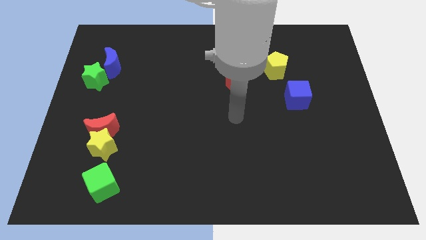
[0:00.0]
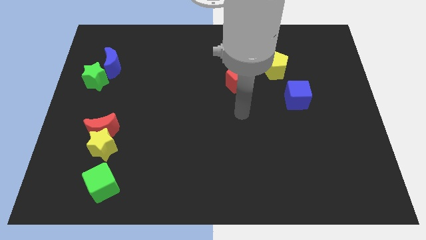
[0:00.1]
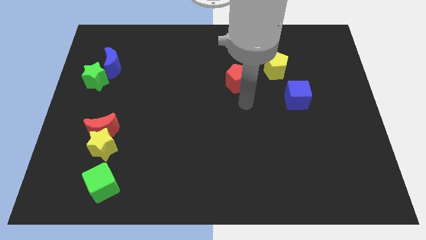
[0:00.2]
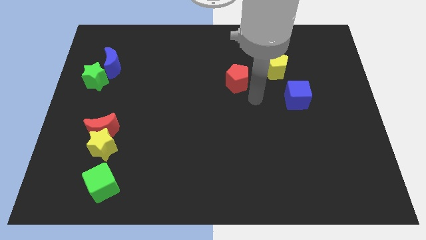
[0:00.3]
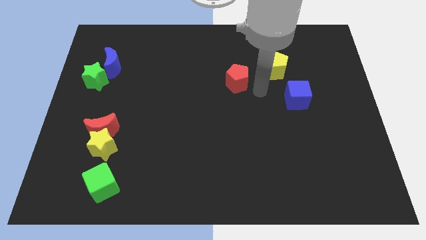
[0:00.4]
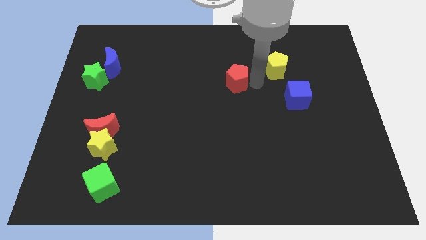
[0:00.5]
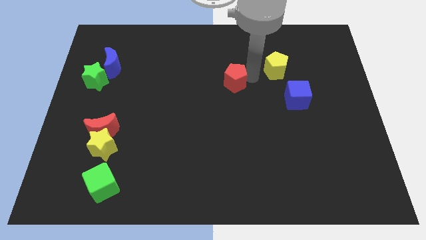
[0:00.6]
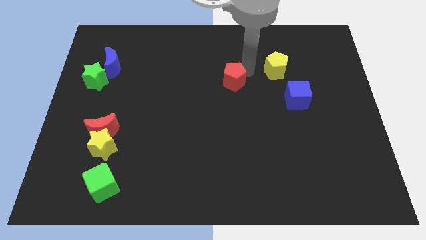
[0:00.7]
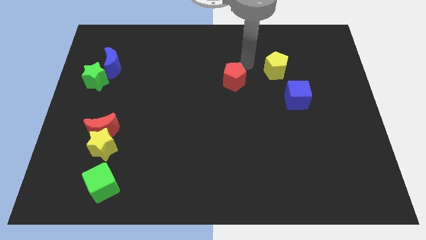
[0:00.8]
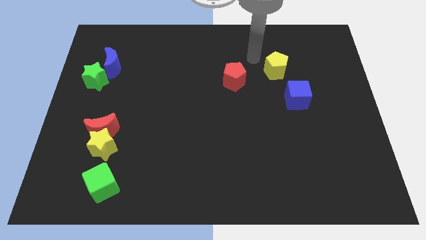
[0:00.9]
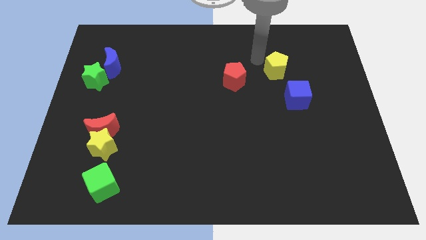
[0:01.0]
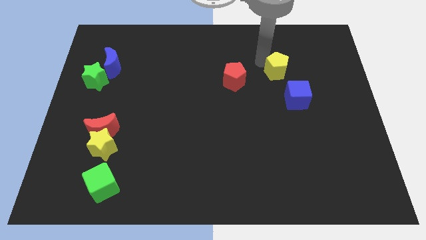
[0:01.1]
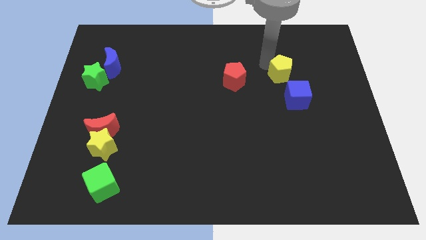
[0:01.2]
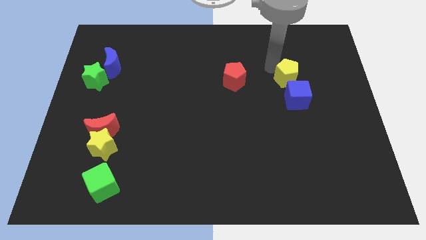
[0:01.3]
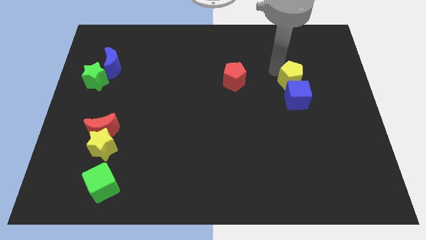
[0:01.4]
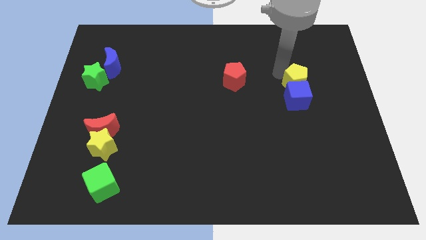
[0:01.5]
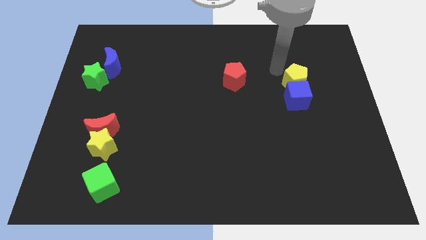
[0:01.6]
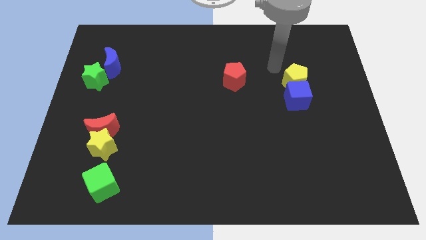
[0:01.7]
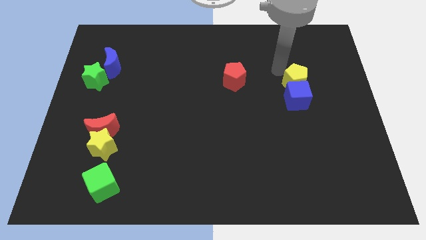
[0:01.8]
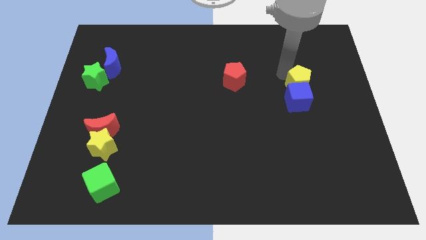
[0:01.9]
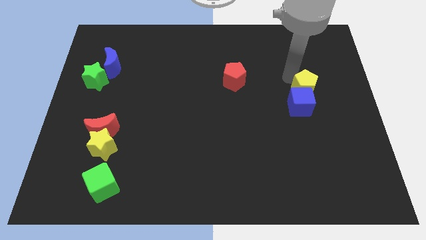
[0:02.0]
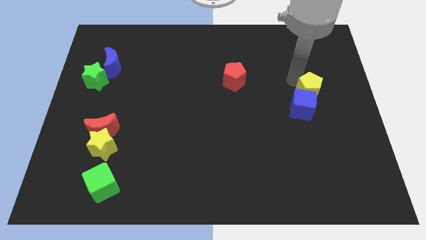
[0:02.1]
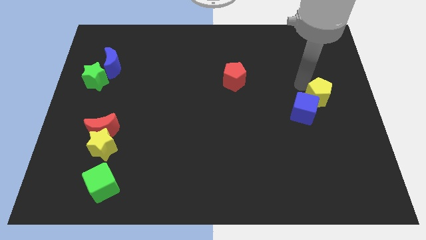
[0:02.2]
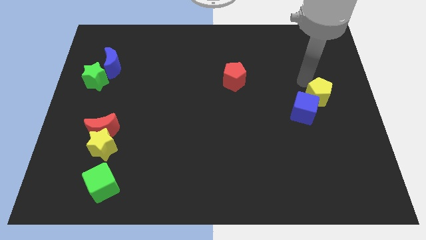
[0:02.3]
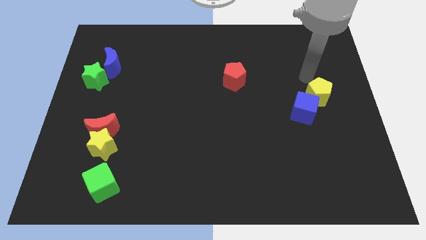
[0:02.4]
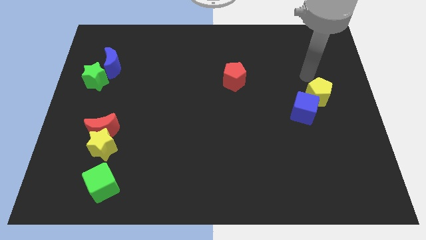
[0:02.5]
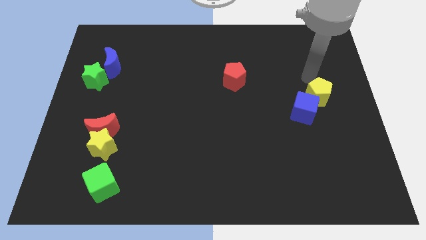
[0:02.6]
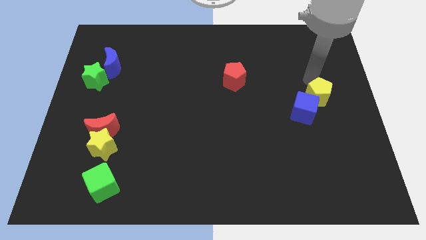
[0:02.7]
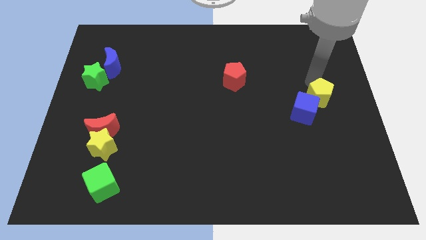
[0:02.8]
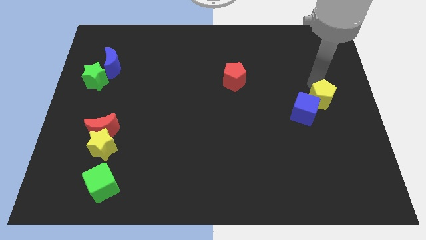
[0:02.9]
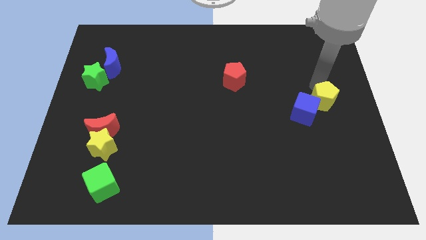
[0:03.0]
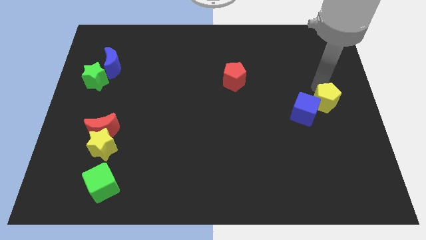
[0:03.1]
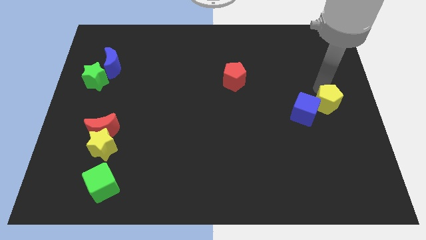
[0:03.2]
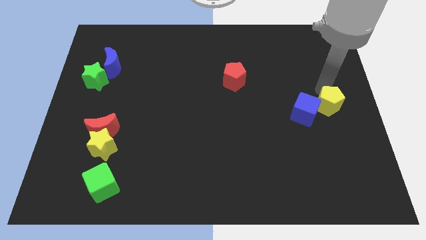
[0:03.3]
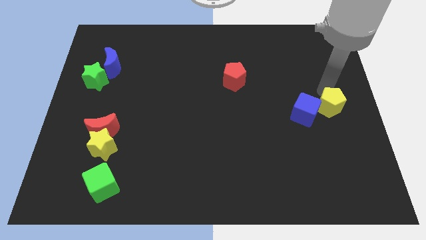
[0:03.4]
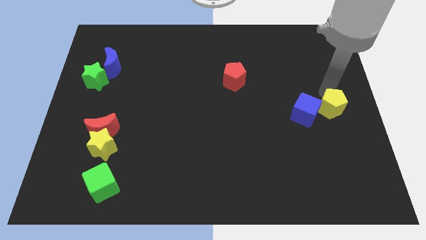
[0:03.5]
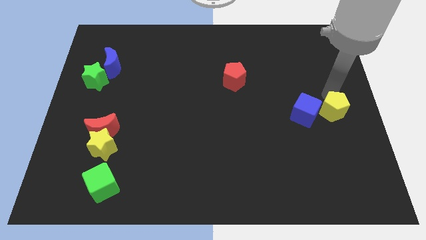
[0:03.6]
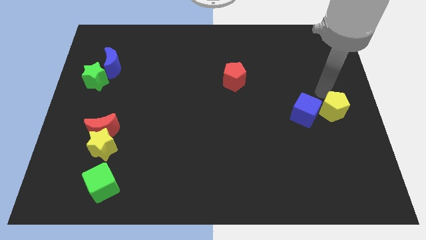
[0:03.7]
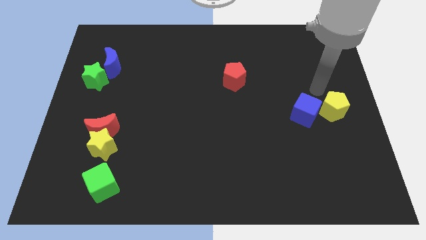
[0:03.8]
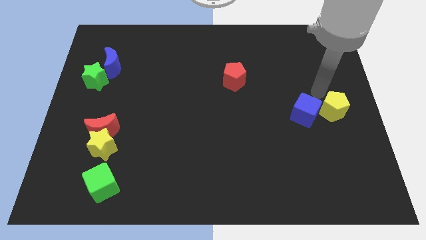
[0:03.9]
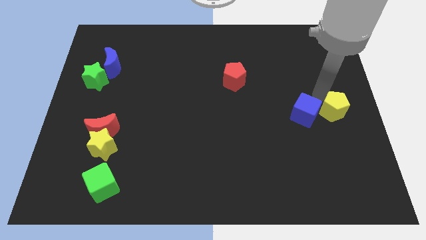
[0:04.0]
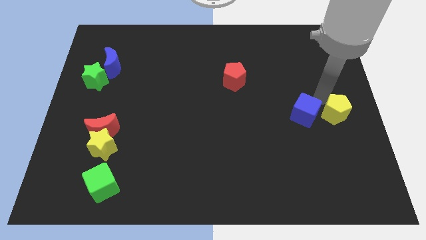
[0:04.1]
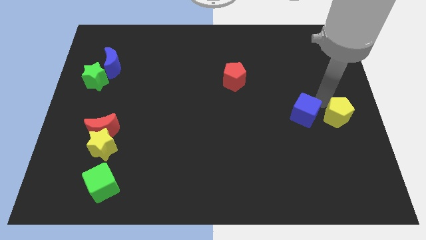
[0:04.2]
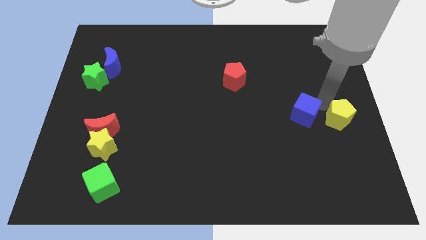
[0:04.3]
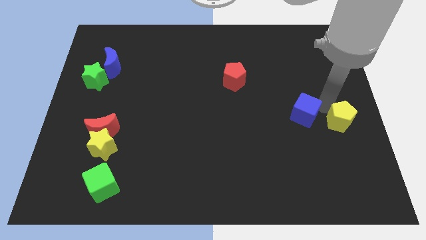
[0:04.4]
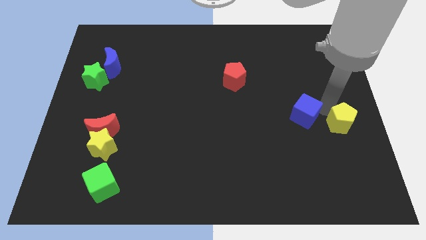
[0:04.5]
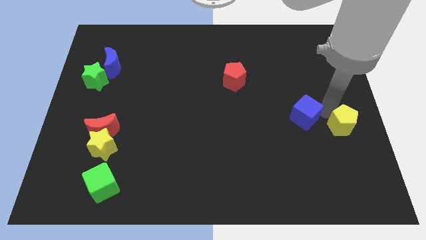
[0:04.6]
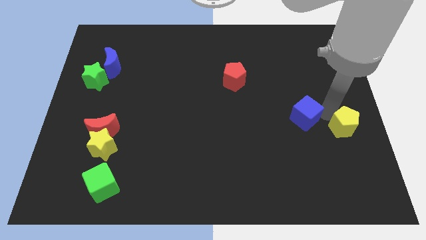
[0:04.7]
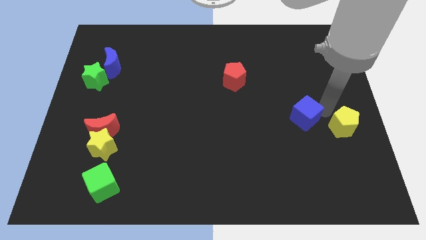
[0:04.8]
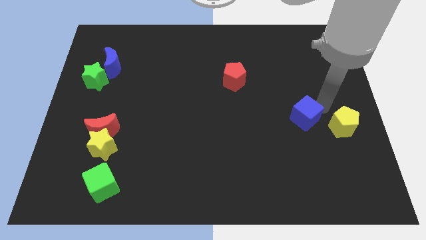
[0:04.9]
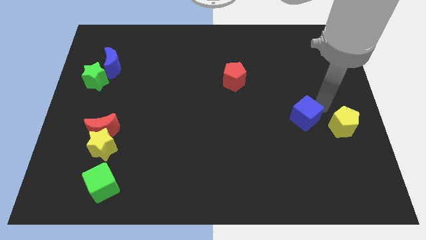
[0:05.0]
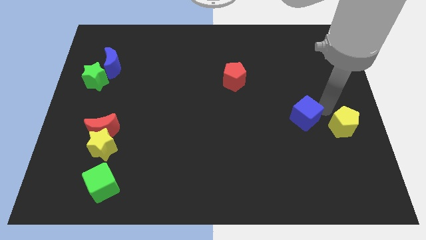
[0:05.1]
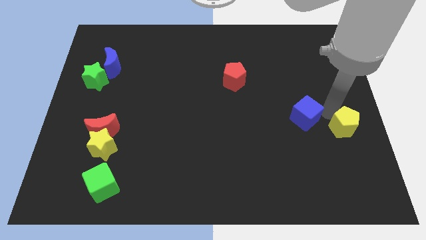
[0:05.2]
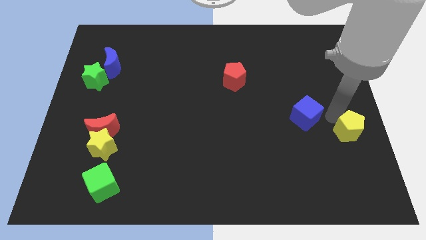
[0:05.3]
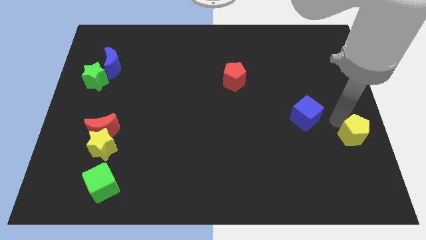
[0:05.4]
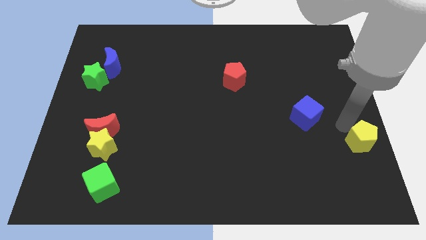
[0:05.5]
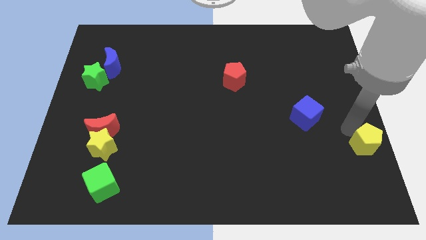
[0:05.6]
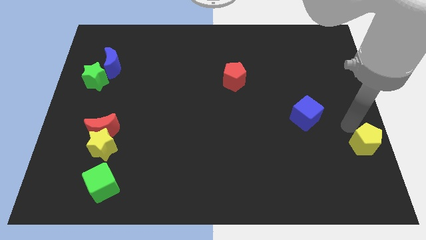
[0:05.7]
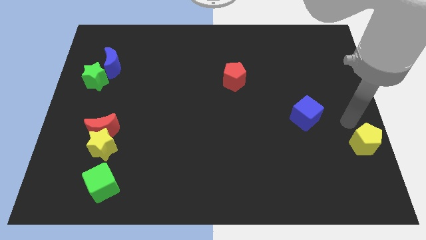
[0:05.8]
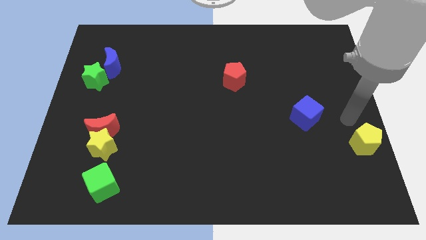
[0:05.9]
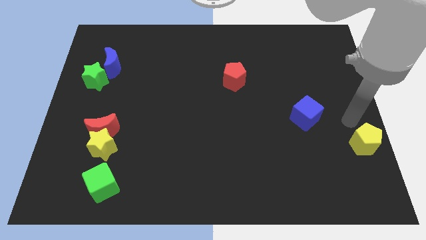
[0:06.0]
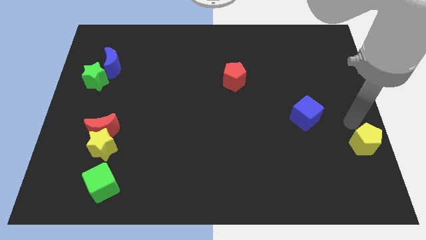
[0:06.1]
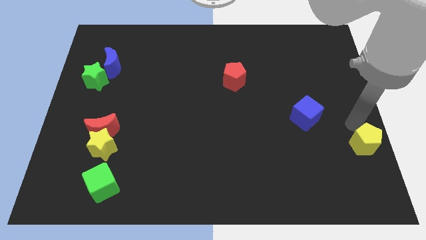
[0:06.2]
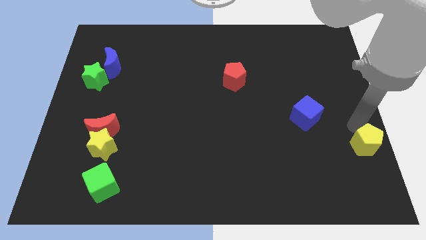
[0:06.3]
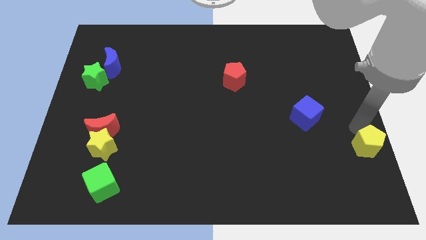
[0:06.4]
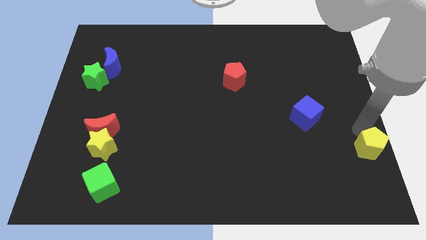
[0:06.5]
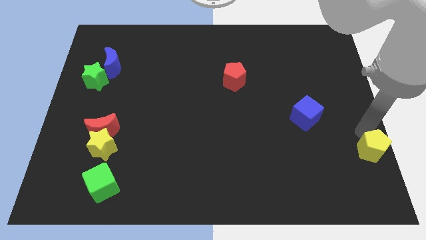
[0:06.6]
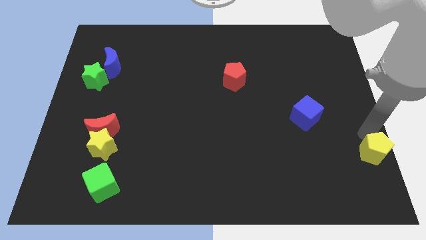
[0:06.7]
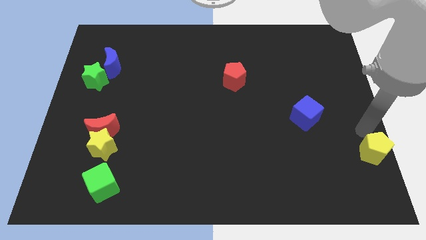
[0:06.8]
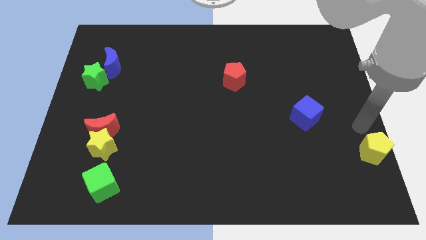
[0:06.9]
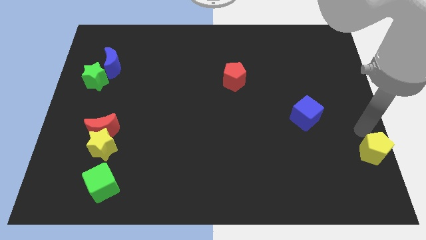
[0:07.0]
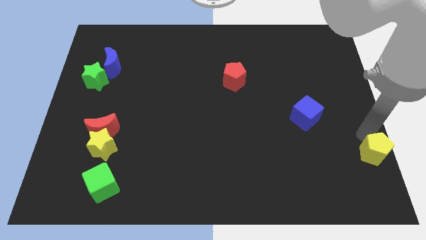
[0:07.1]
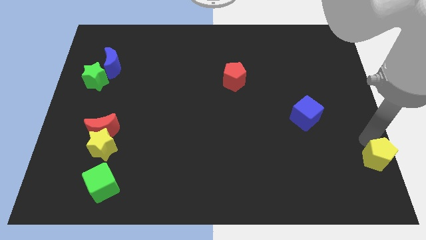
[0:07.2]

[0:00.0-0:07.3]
push the yellow pentagon to the bottom right of the board
